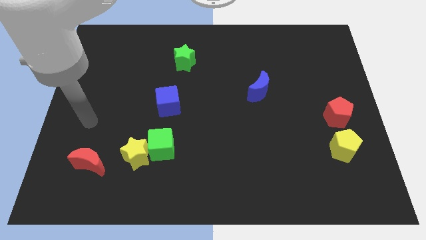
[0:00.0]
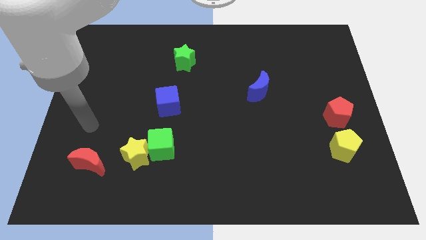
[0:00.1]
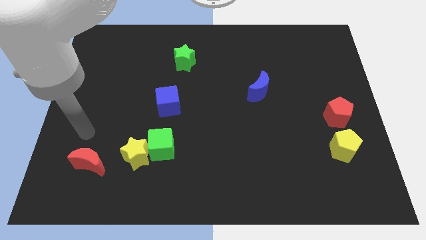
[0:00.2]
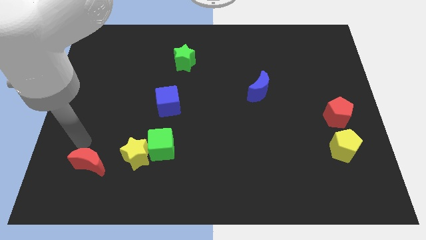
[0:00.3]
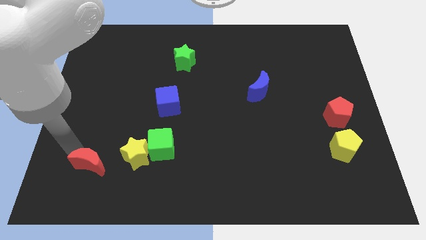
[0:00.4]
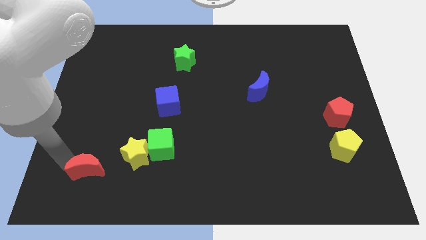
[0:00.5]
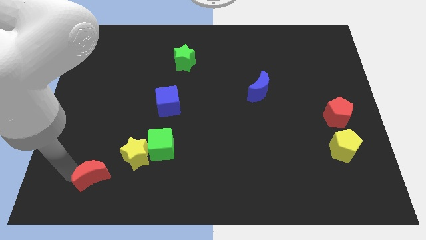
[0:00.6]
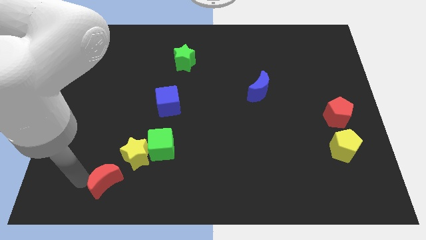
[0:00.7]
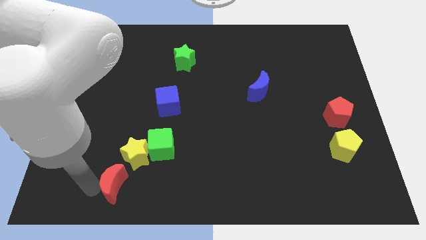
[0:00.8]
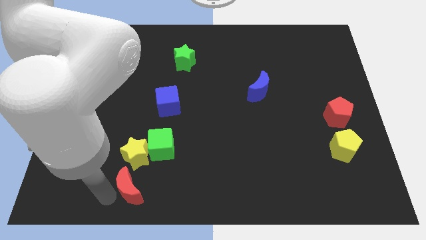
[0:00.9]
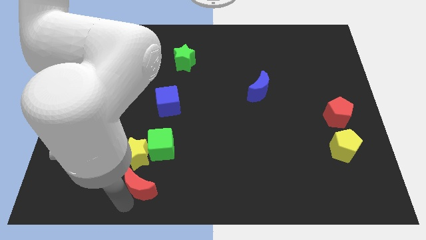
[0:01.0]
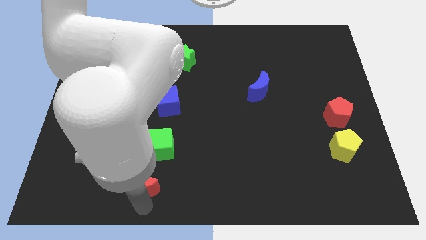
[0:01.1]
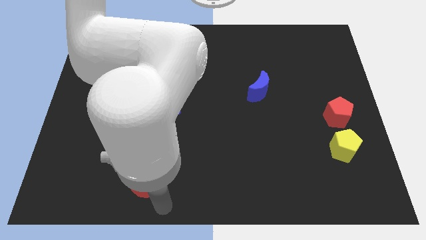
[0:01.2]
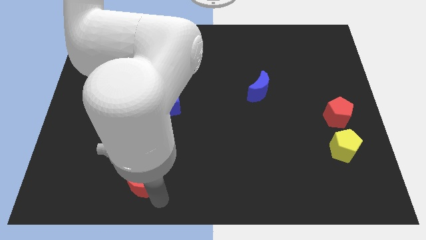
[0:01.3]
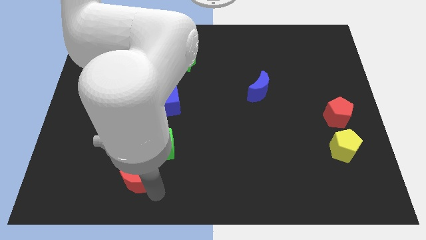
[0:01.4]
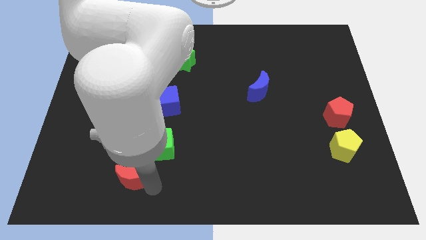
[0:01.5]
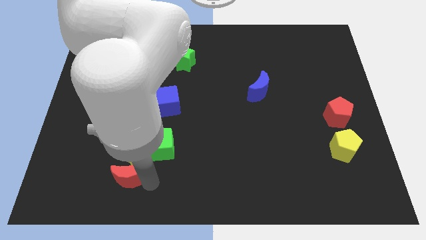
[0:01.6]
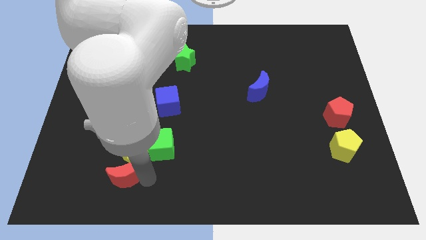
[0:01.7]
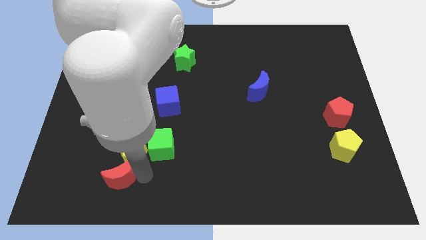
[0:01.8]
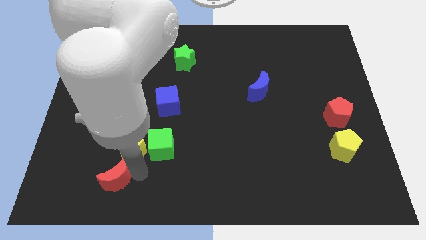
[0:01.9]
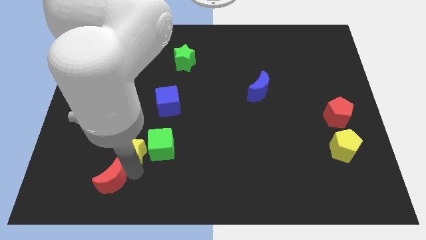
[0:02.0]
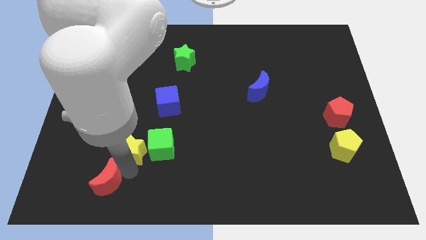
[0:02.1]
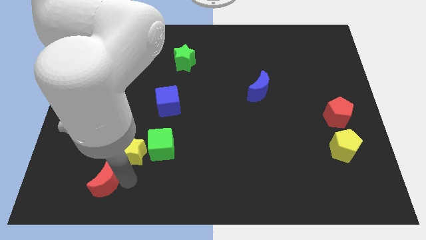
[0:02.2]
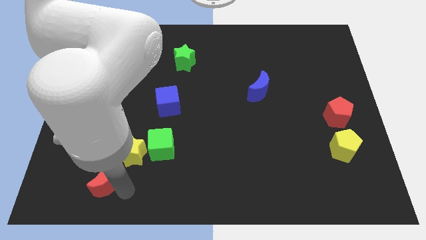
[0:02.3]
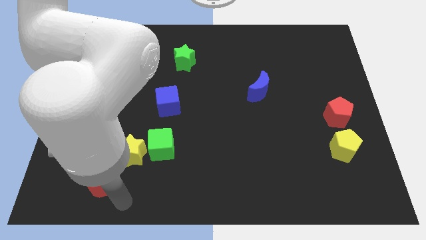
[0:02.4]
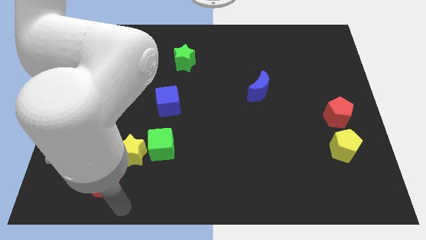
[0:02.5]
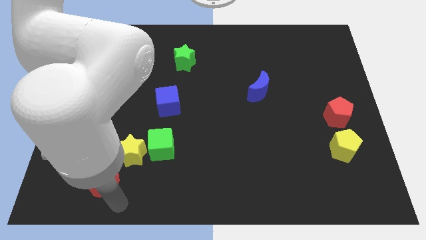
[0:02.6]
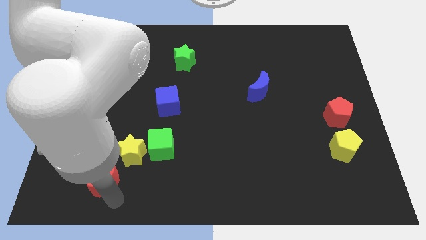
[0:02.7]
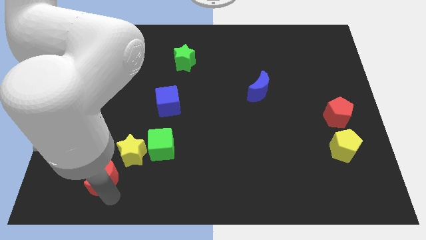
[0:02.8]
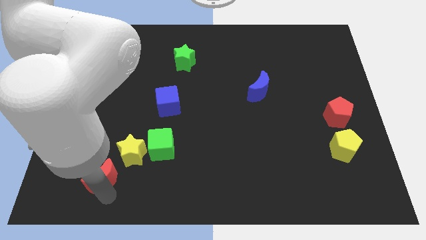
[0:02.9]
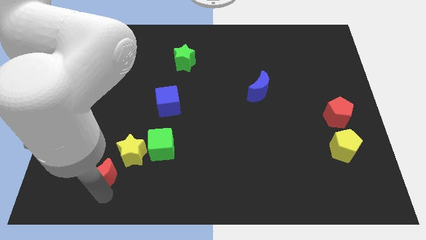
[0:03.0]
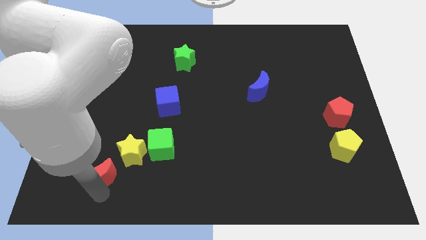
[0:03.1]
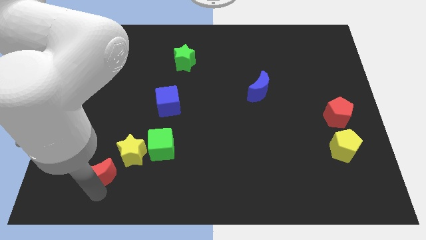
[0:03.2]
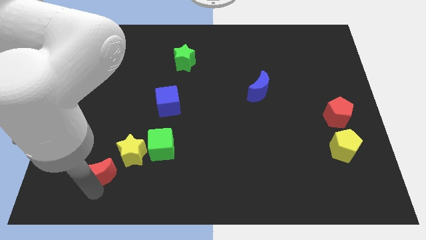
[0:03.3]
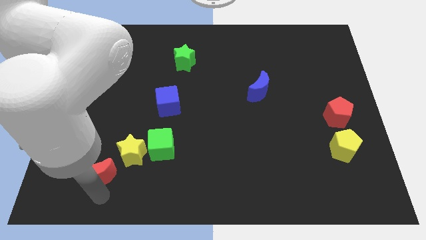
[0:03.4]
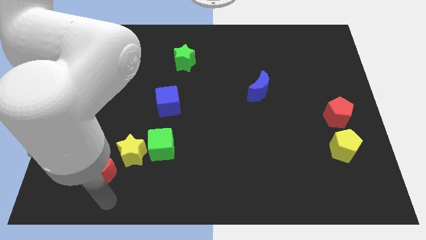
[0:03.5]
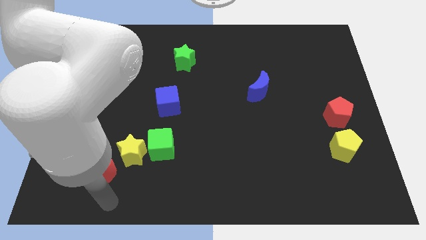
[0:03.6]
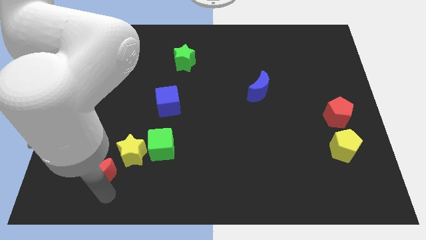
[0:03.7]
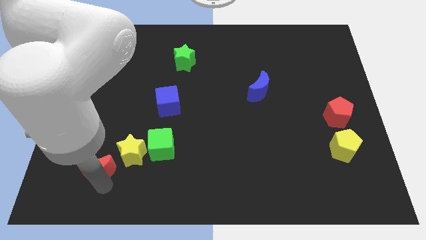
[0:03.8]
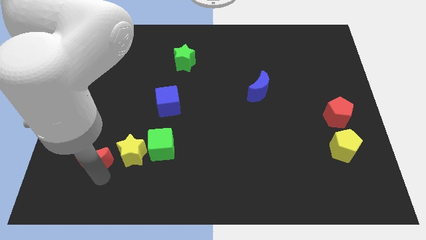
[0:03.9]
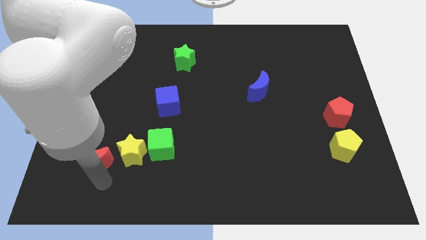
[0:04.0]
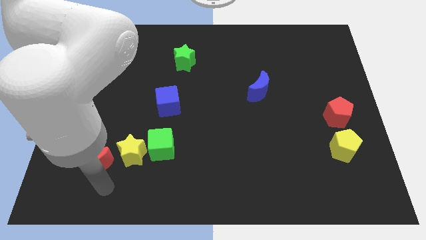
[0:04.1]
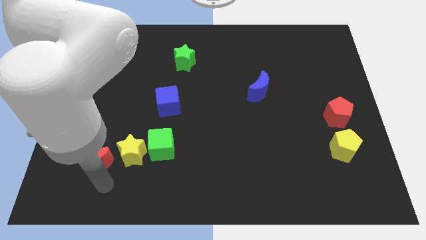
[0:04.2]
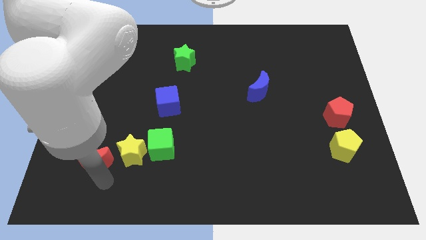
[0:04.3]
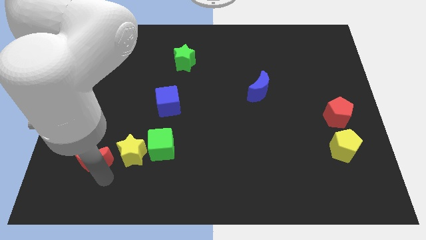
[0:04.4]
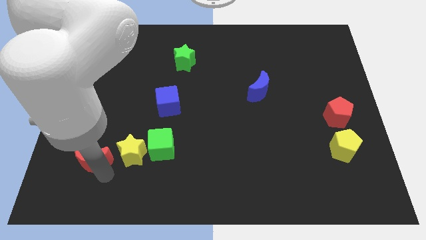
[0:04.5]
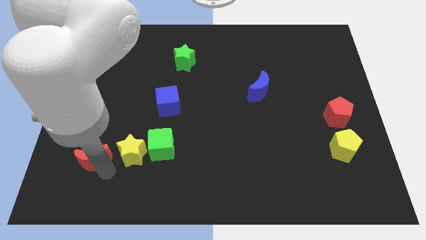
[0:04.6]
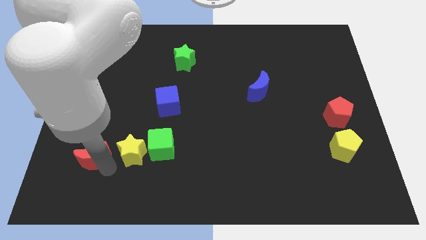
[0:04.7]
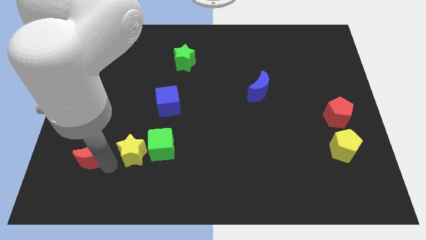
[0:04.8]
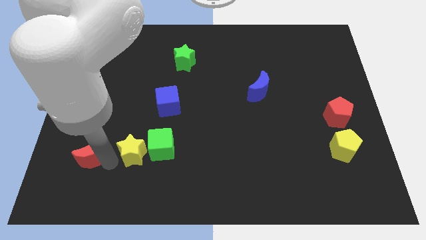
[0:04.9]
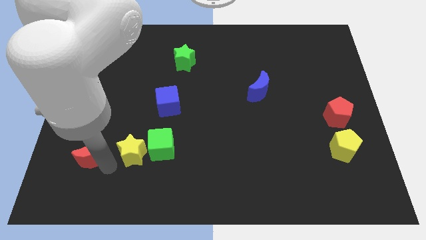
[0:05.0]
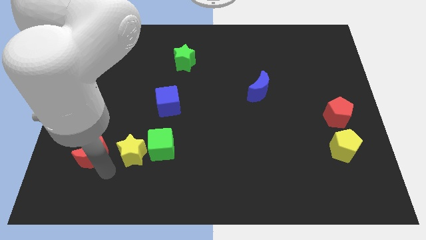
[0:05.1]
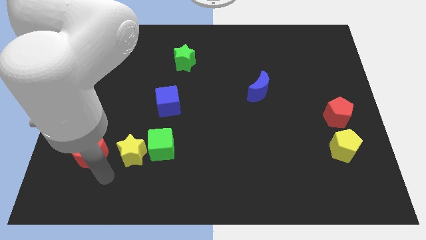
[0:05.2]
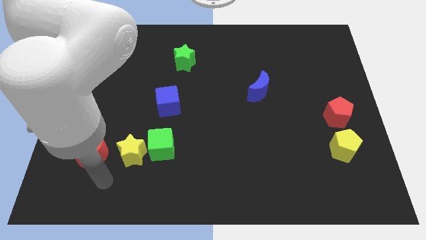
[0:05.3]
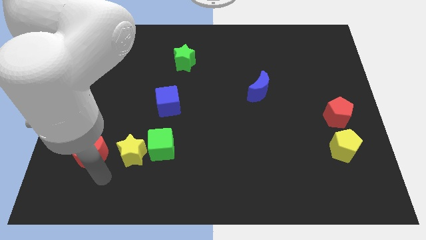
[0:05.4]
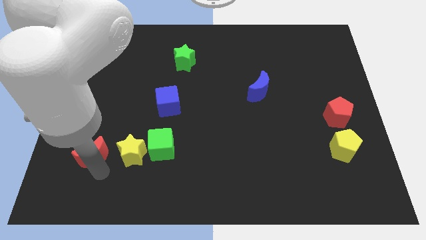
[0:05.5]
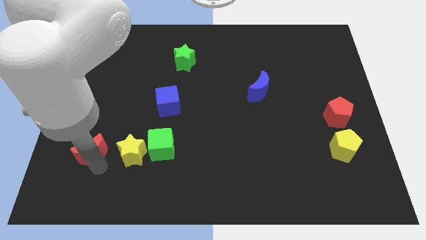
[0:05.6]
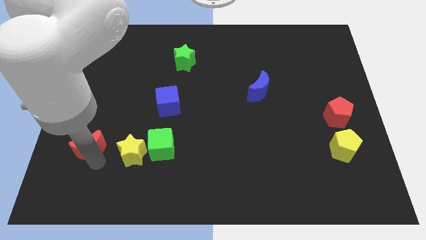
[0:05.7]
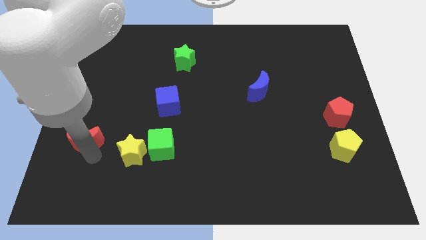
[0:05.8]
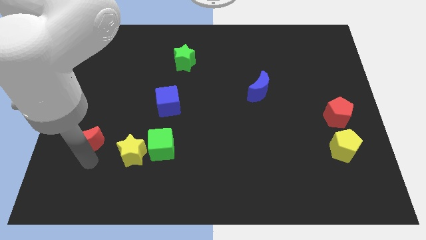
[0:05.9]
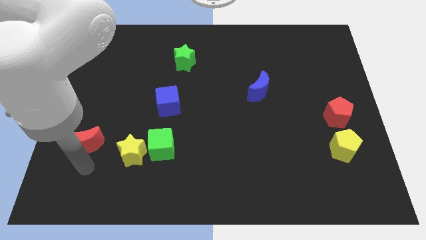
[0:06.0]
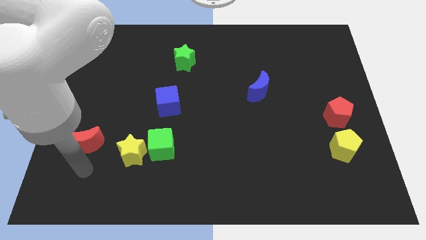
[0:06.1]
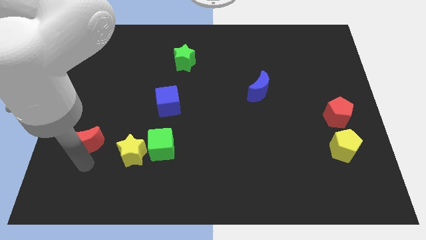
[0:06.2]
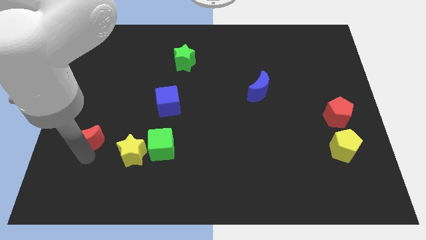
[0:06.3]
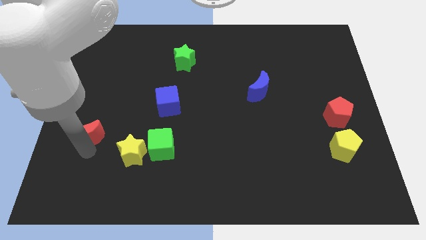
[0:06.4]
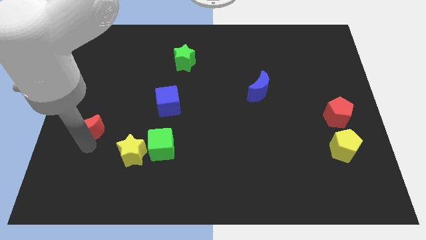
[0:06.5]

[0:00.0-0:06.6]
slightly slide the red moon upwards

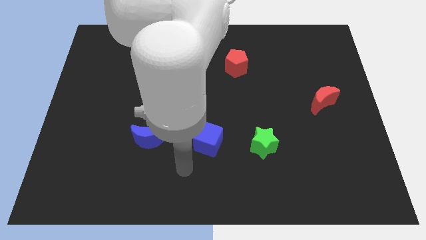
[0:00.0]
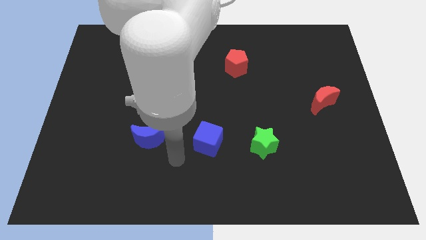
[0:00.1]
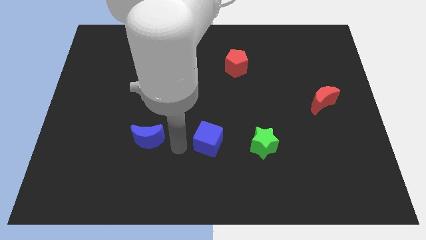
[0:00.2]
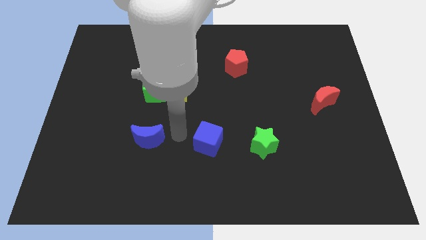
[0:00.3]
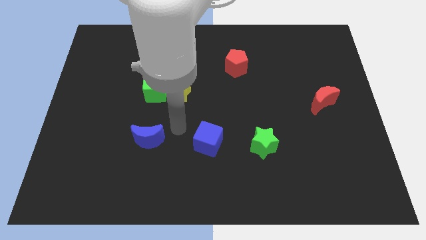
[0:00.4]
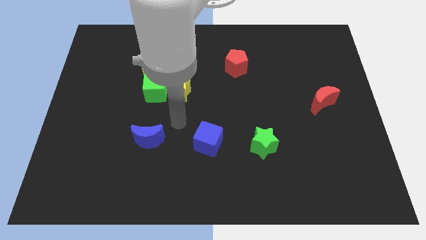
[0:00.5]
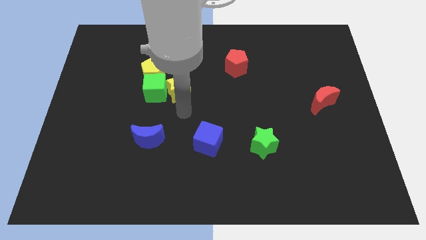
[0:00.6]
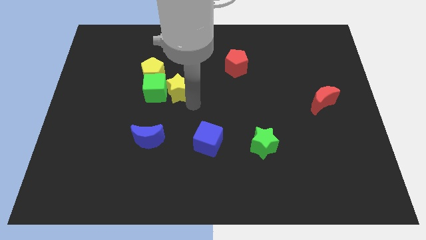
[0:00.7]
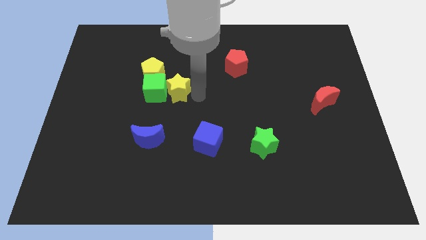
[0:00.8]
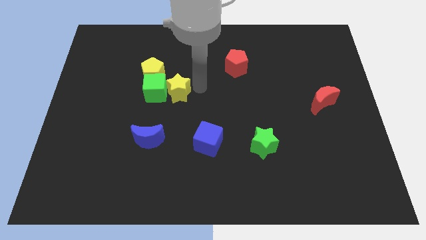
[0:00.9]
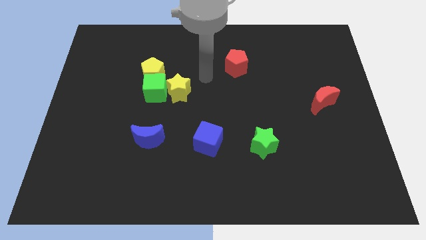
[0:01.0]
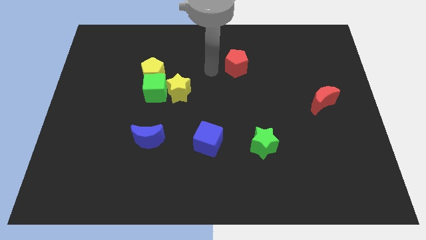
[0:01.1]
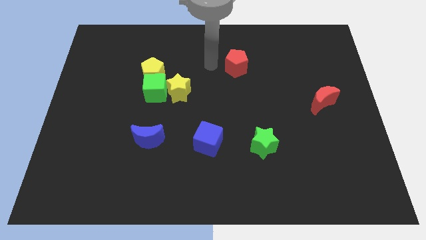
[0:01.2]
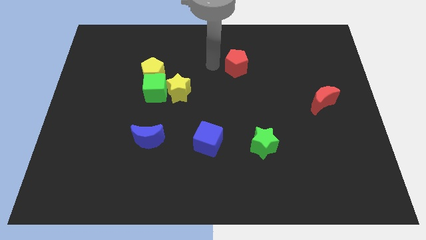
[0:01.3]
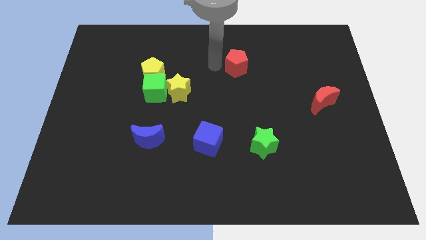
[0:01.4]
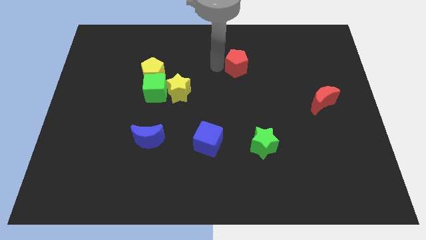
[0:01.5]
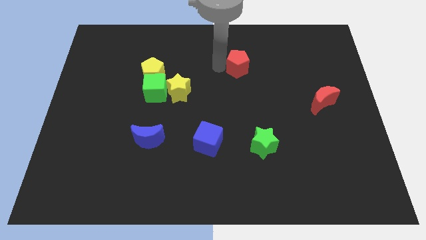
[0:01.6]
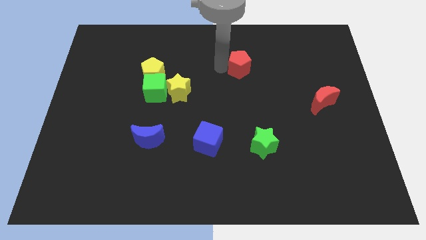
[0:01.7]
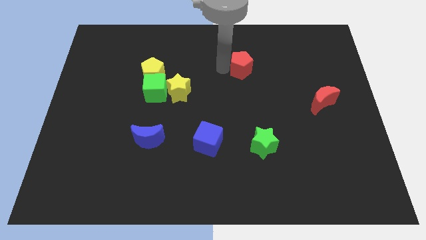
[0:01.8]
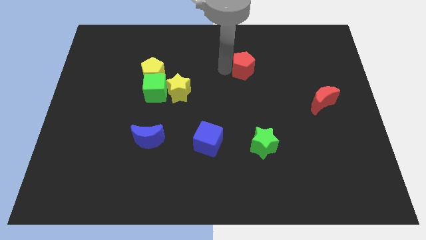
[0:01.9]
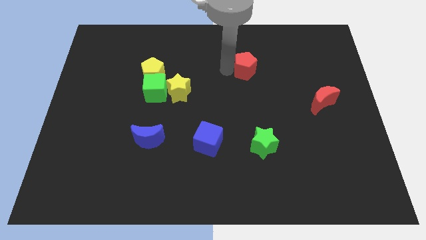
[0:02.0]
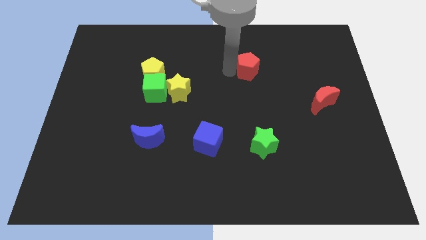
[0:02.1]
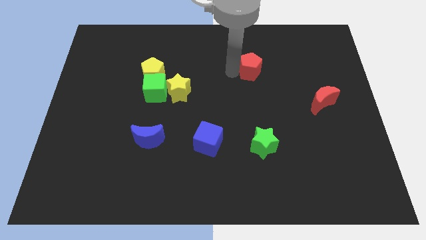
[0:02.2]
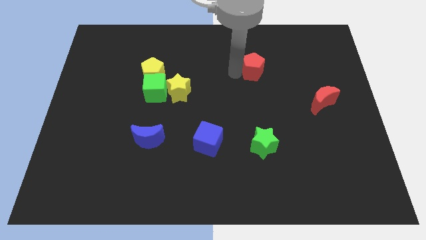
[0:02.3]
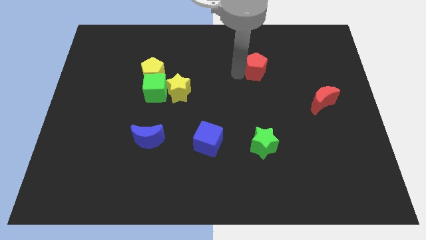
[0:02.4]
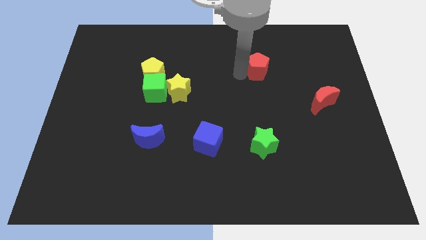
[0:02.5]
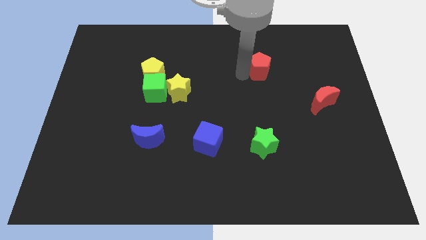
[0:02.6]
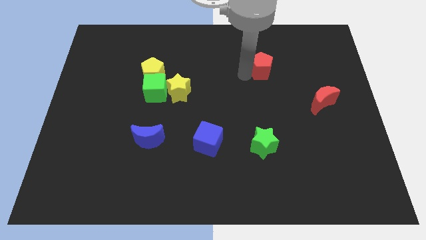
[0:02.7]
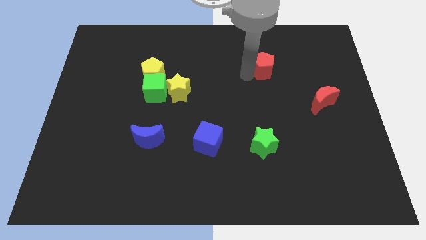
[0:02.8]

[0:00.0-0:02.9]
slightly slide the red pentagon to the right
